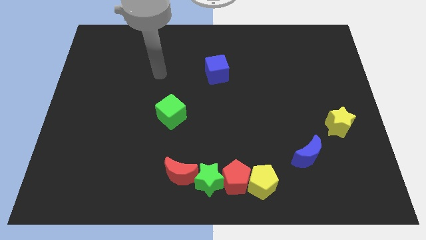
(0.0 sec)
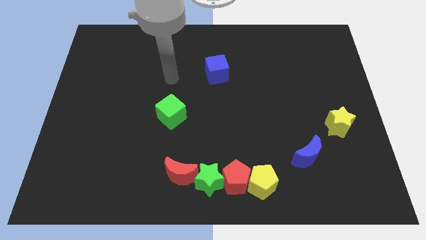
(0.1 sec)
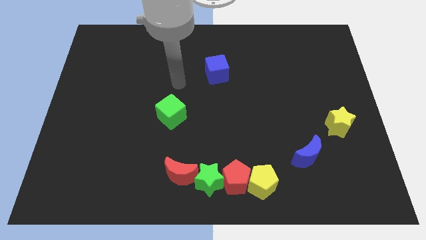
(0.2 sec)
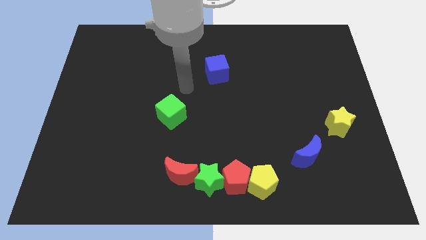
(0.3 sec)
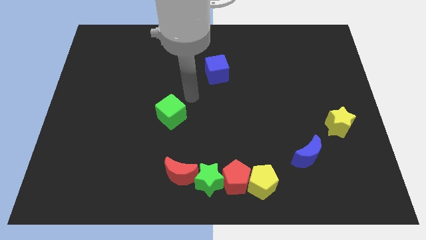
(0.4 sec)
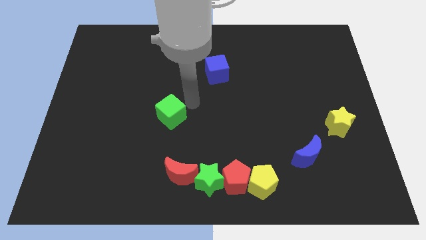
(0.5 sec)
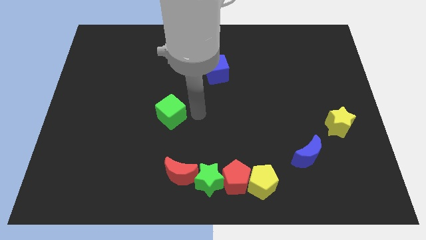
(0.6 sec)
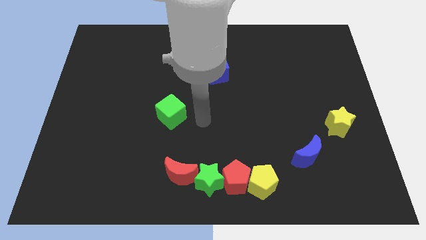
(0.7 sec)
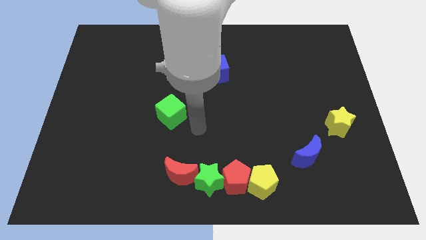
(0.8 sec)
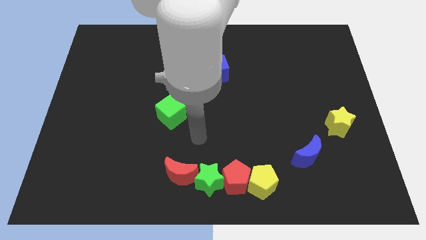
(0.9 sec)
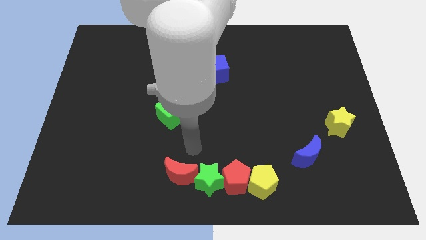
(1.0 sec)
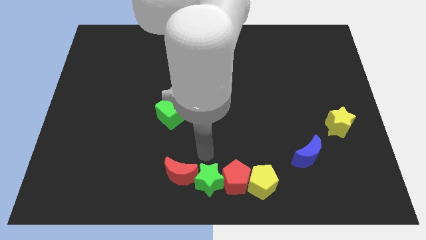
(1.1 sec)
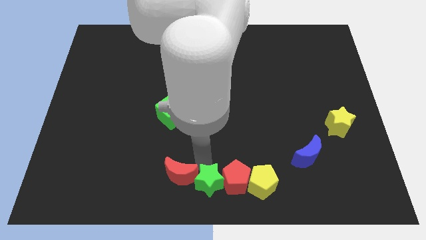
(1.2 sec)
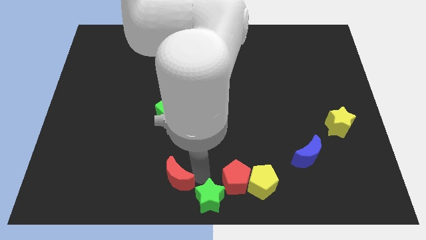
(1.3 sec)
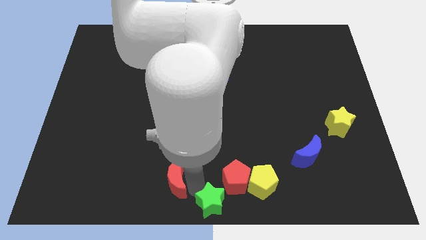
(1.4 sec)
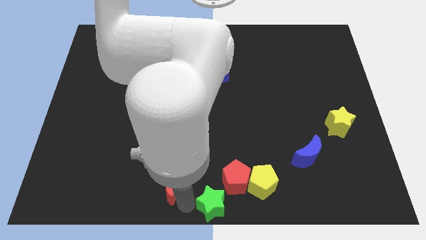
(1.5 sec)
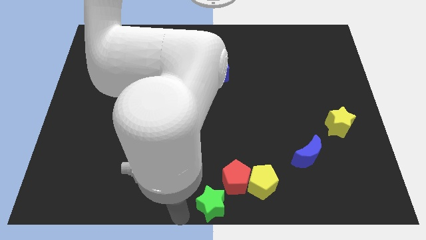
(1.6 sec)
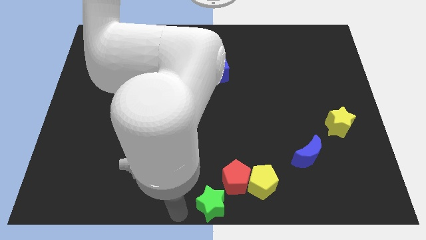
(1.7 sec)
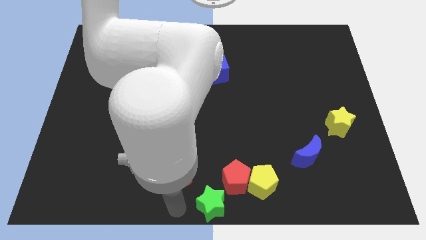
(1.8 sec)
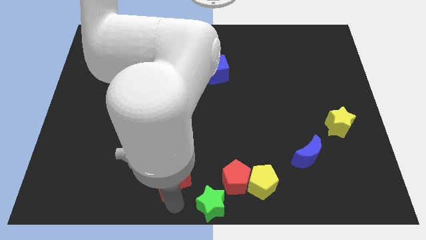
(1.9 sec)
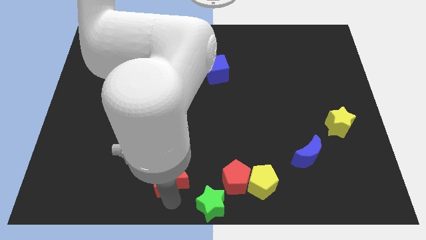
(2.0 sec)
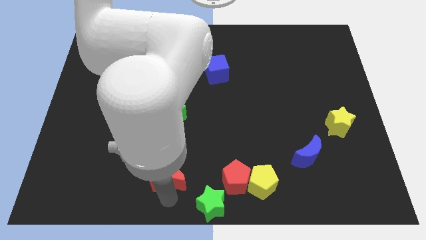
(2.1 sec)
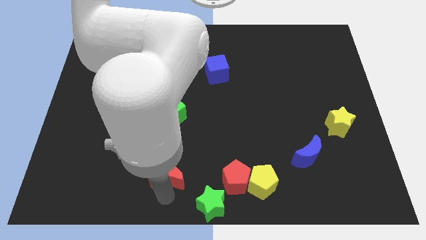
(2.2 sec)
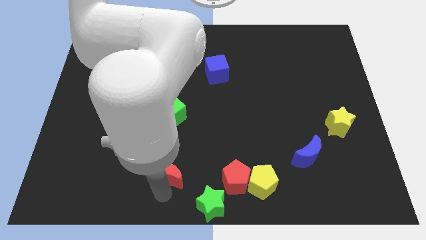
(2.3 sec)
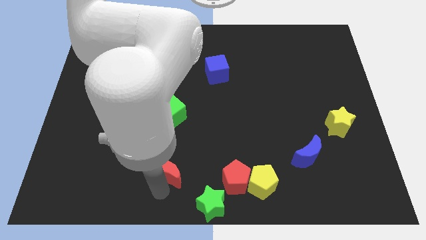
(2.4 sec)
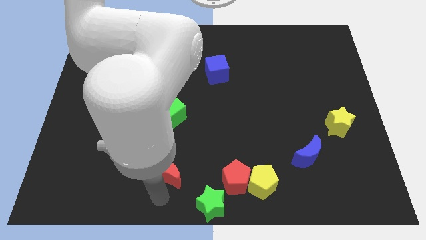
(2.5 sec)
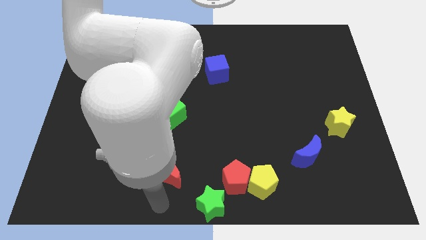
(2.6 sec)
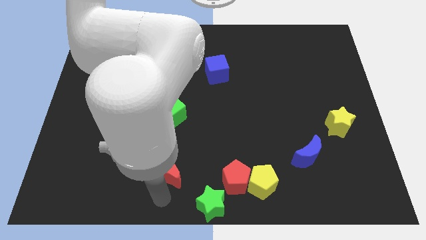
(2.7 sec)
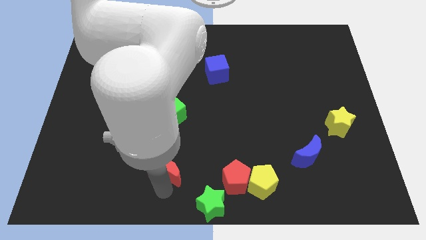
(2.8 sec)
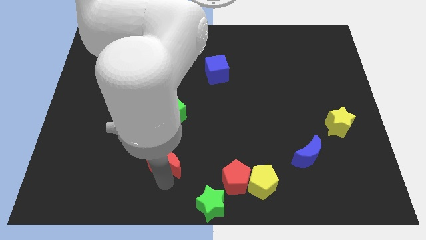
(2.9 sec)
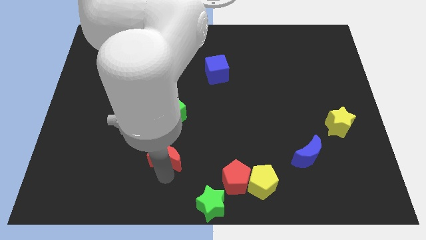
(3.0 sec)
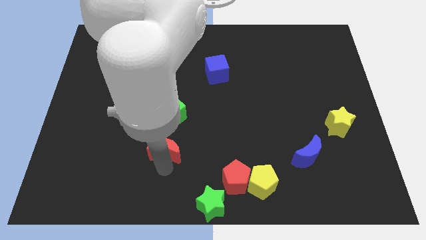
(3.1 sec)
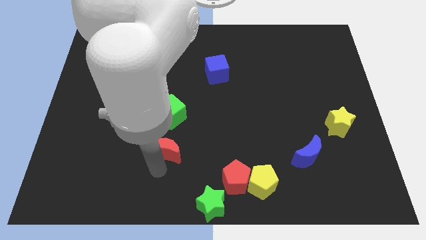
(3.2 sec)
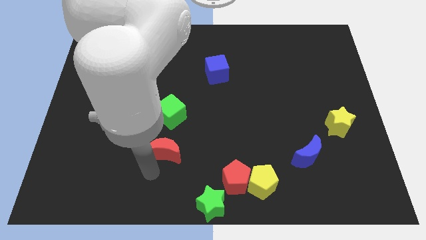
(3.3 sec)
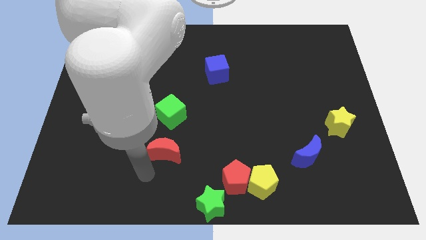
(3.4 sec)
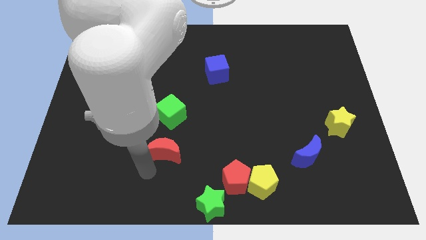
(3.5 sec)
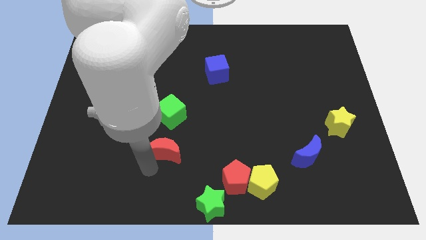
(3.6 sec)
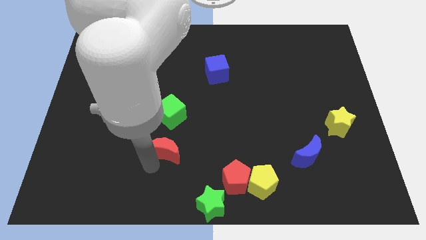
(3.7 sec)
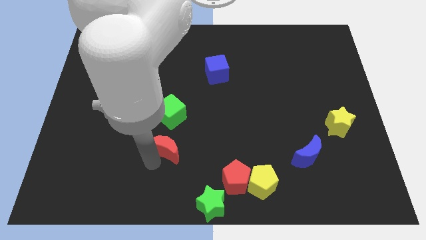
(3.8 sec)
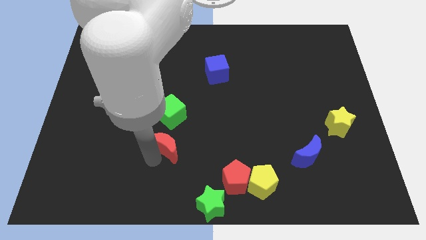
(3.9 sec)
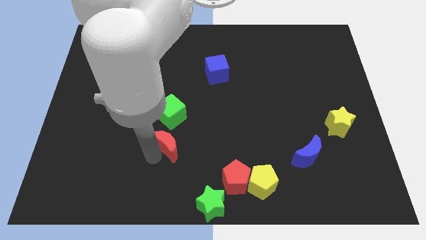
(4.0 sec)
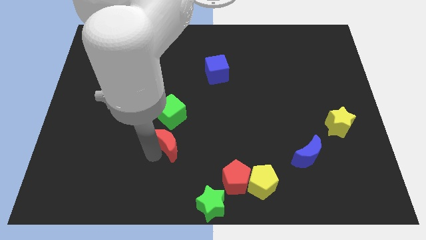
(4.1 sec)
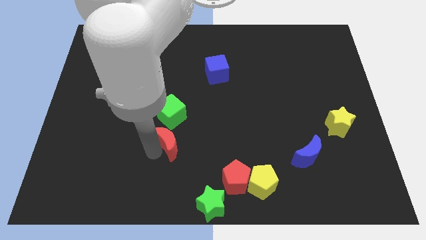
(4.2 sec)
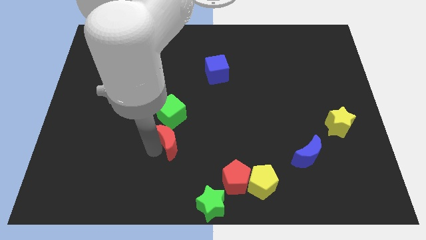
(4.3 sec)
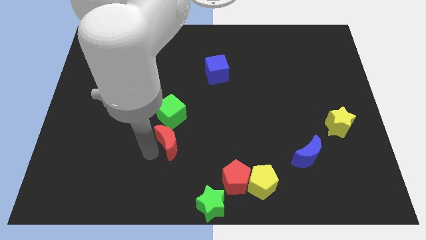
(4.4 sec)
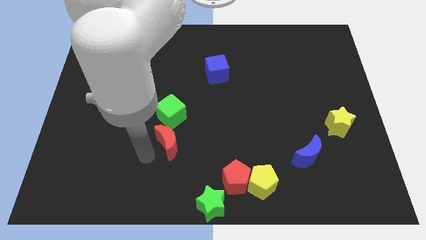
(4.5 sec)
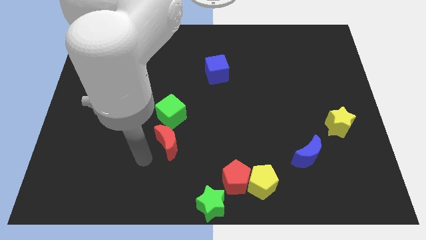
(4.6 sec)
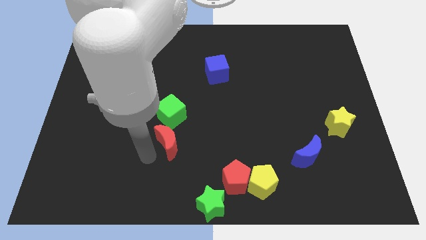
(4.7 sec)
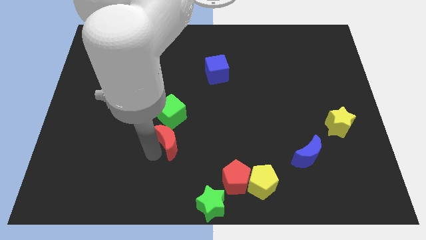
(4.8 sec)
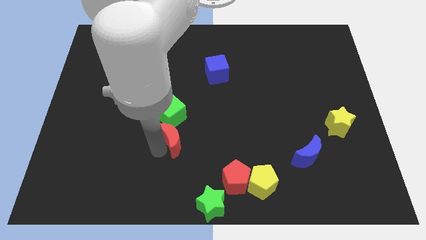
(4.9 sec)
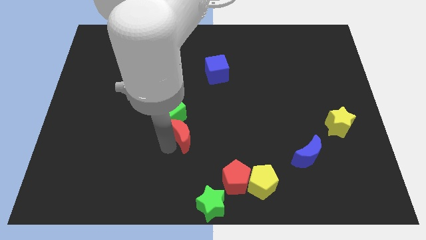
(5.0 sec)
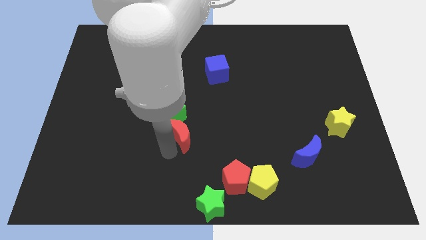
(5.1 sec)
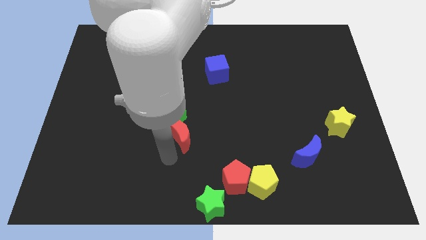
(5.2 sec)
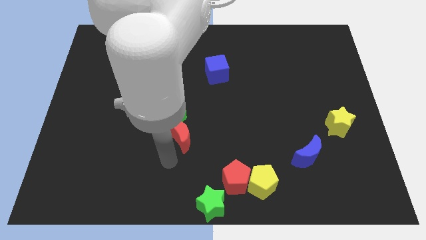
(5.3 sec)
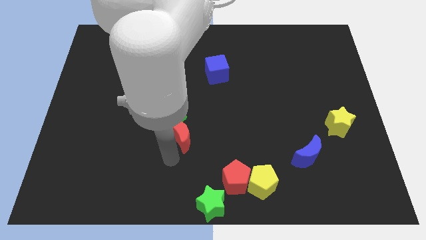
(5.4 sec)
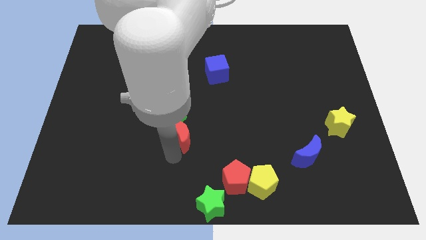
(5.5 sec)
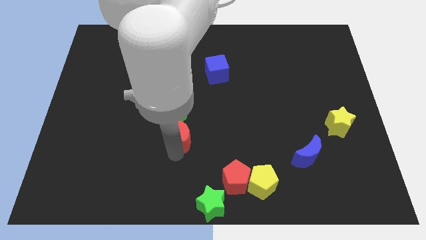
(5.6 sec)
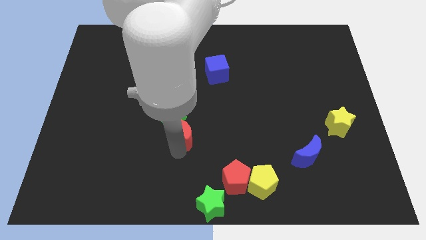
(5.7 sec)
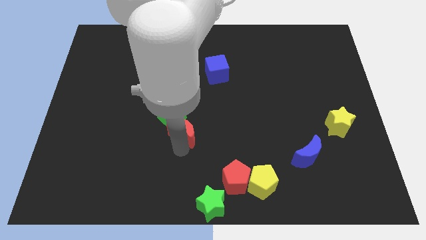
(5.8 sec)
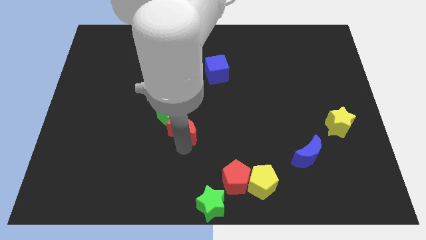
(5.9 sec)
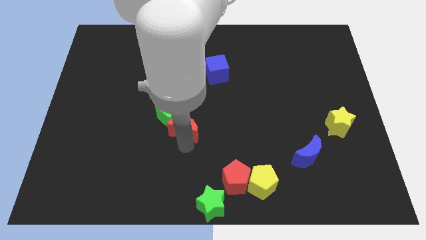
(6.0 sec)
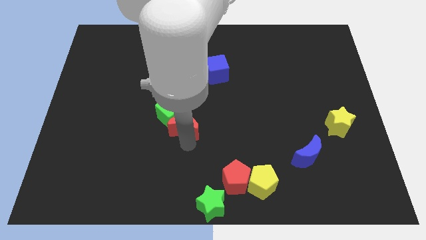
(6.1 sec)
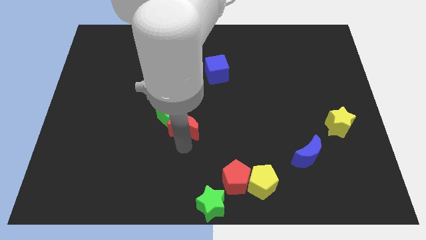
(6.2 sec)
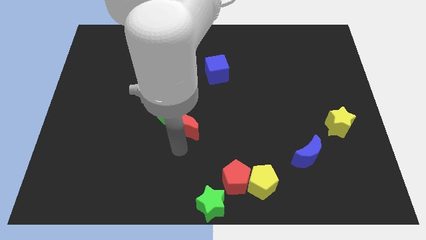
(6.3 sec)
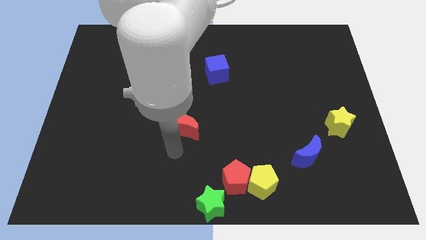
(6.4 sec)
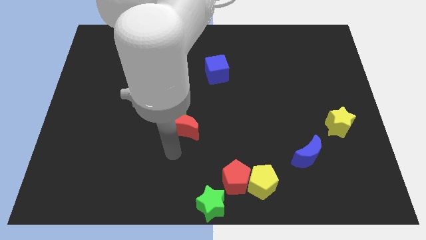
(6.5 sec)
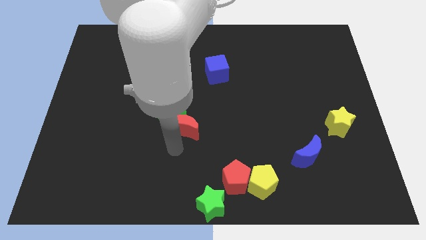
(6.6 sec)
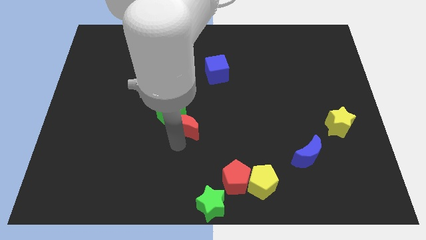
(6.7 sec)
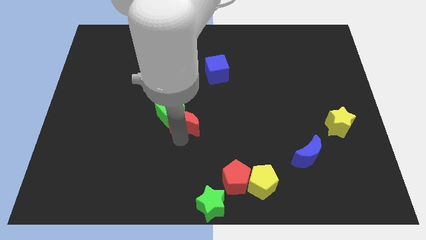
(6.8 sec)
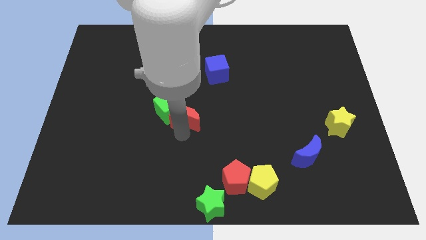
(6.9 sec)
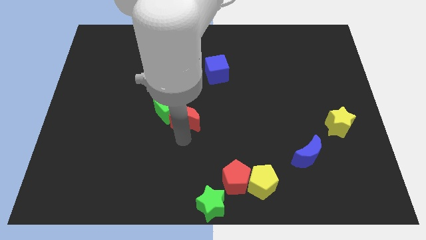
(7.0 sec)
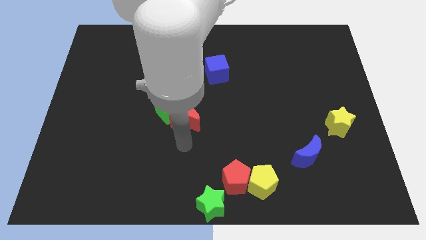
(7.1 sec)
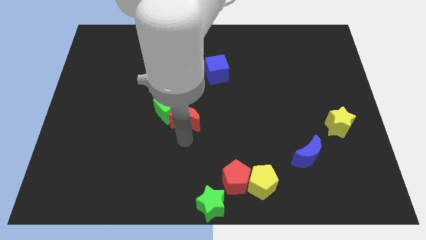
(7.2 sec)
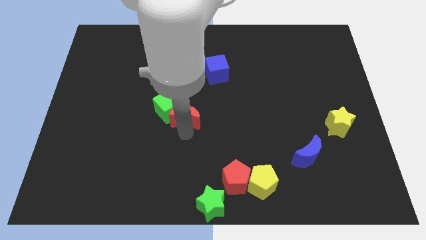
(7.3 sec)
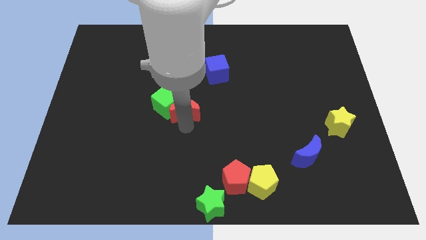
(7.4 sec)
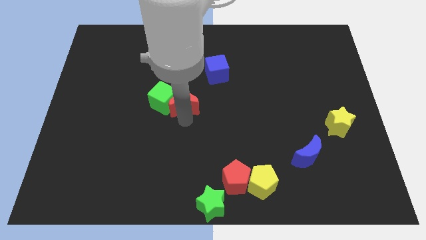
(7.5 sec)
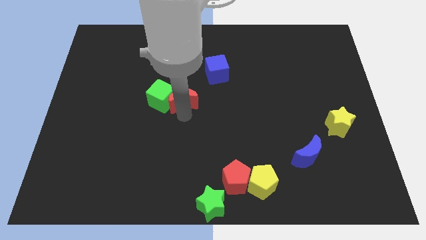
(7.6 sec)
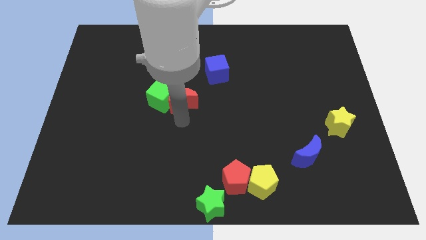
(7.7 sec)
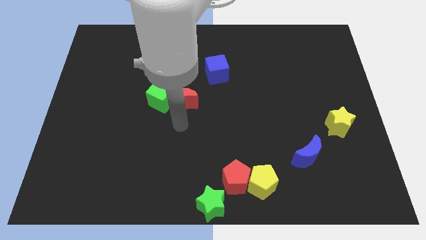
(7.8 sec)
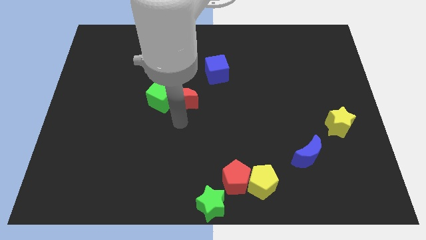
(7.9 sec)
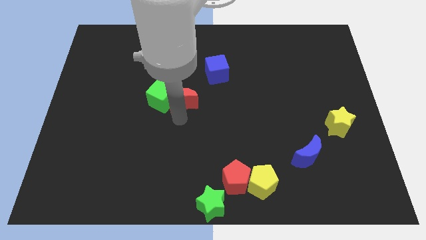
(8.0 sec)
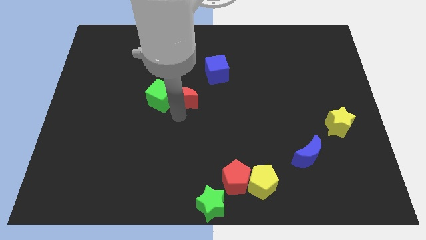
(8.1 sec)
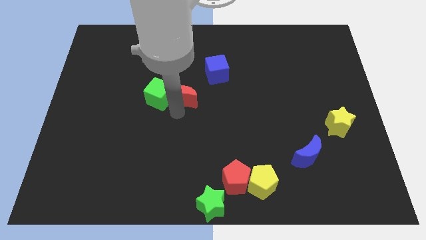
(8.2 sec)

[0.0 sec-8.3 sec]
slide the red moon upwards
